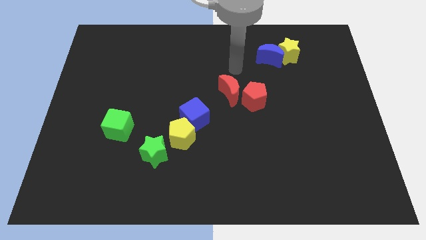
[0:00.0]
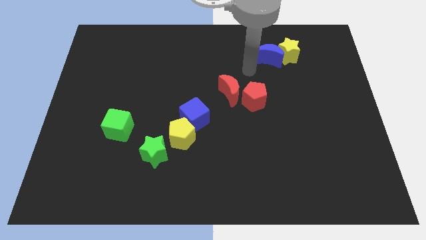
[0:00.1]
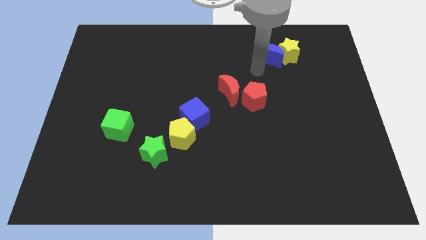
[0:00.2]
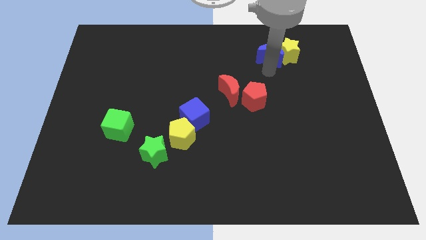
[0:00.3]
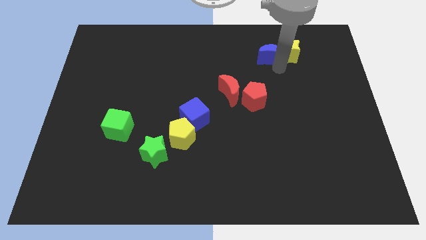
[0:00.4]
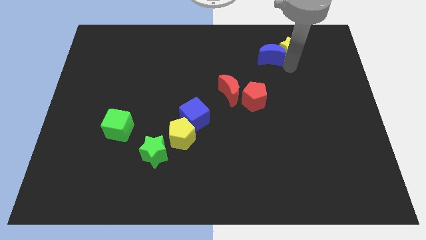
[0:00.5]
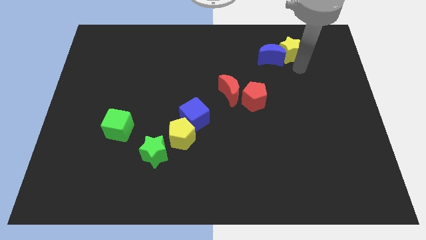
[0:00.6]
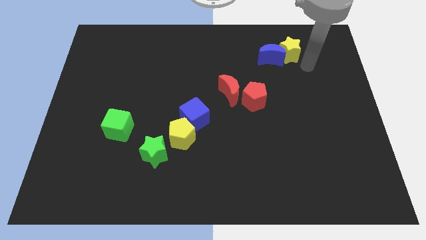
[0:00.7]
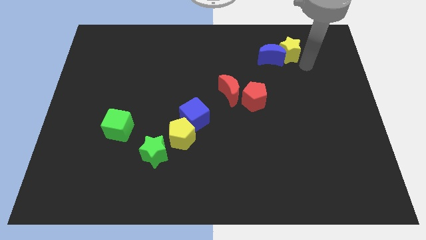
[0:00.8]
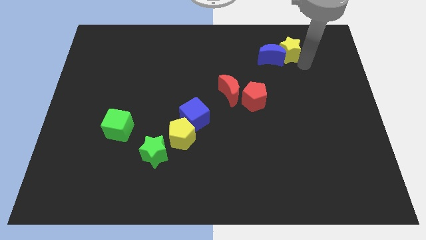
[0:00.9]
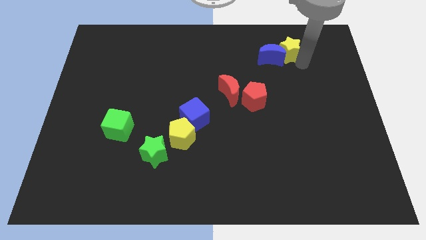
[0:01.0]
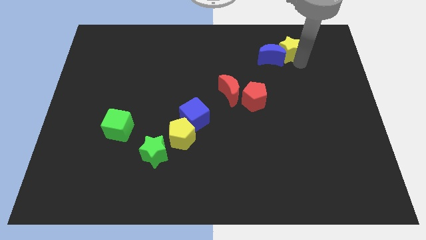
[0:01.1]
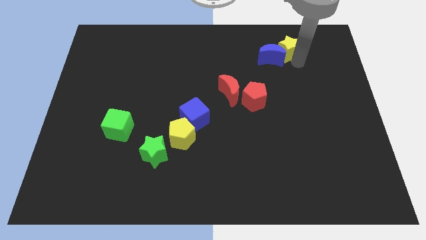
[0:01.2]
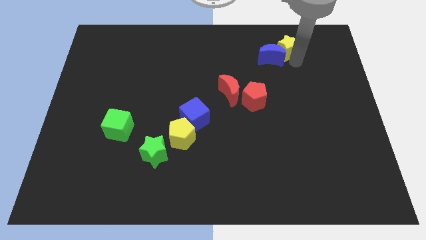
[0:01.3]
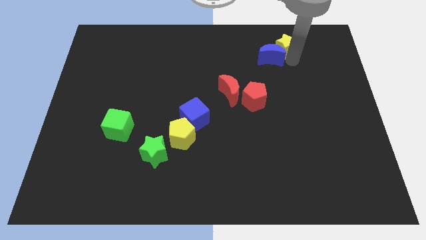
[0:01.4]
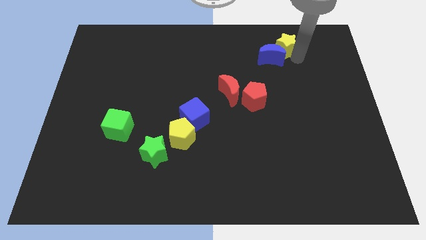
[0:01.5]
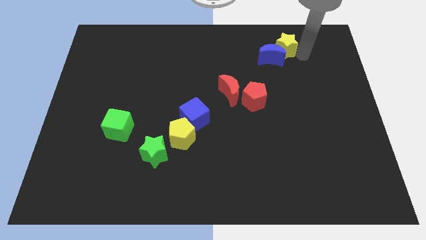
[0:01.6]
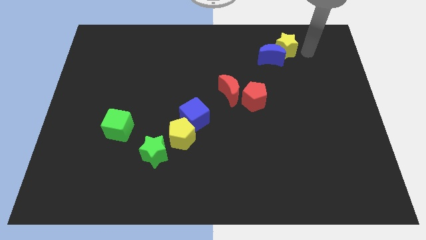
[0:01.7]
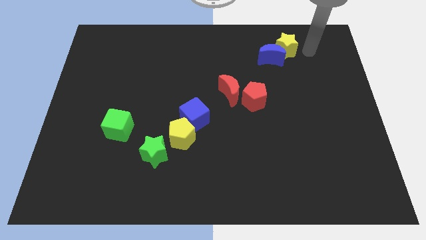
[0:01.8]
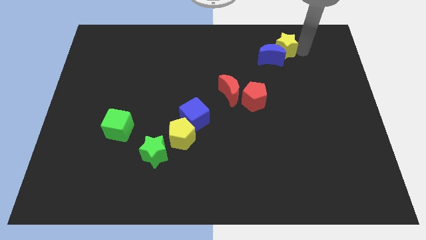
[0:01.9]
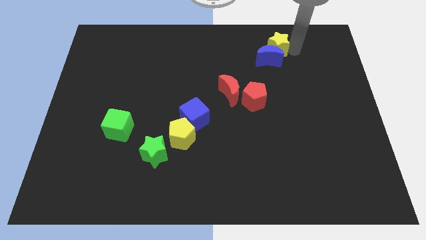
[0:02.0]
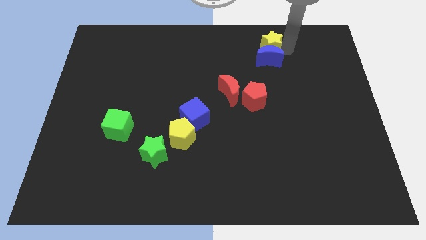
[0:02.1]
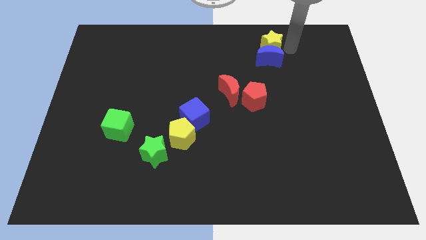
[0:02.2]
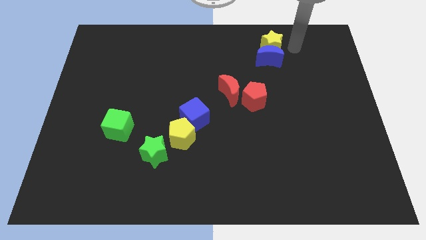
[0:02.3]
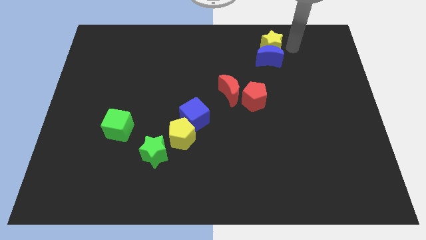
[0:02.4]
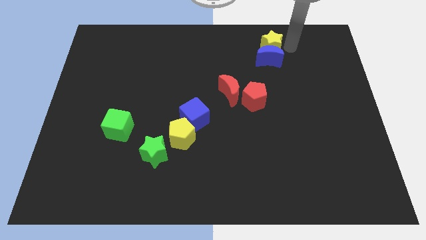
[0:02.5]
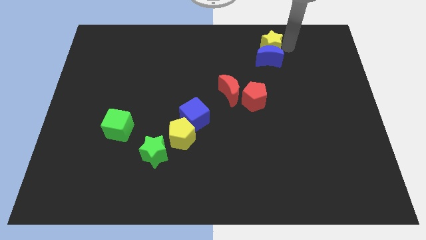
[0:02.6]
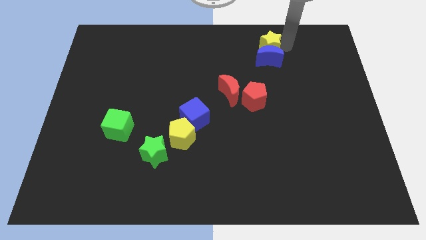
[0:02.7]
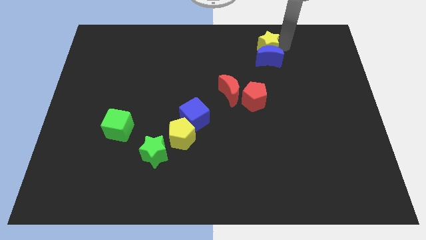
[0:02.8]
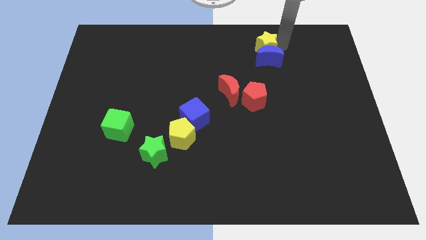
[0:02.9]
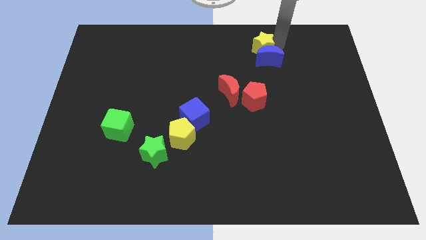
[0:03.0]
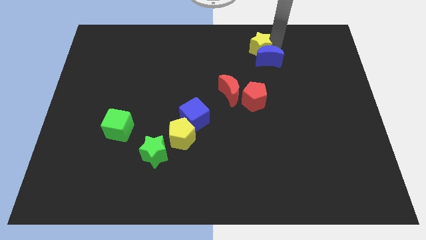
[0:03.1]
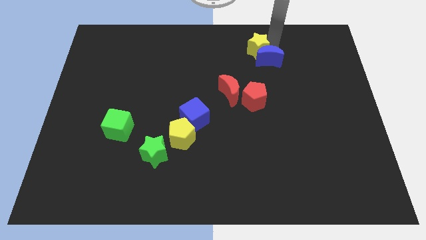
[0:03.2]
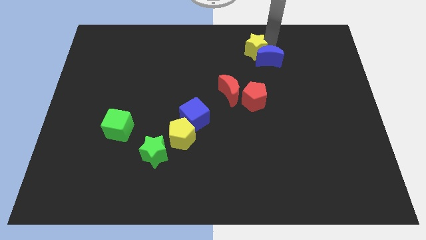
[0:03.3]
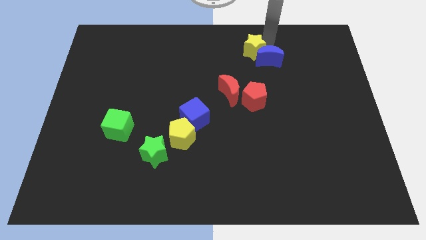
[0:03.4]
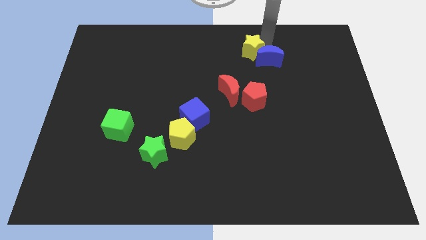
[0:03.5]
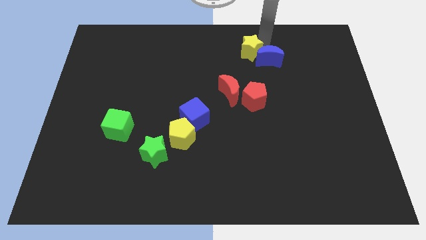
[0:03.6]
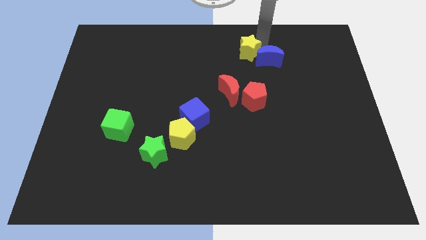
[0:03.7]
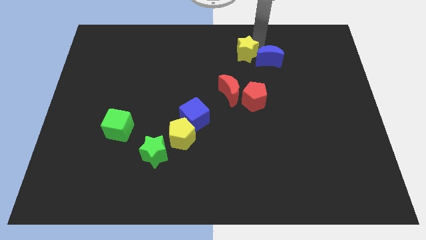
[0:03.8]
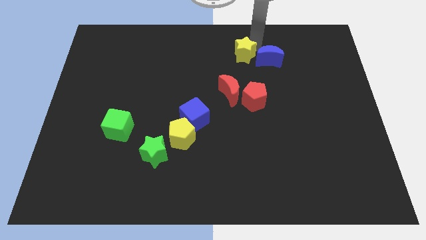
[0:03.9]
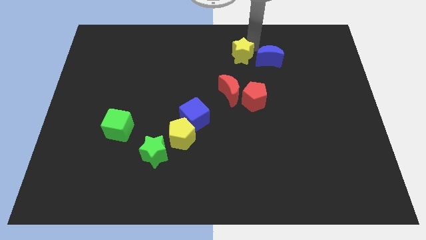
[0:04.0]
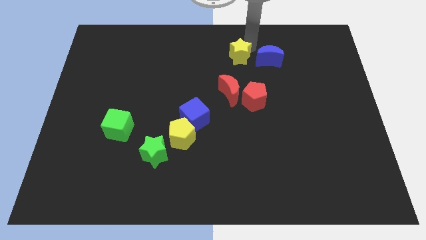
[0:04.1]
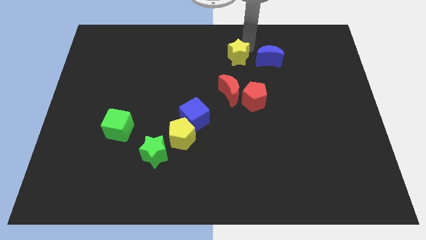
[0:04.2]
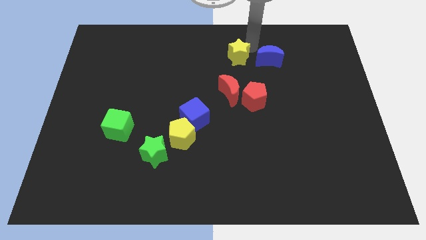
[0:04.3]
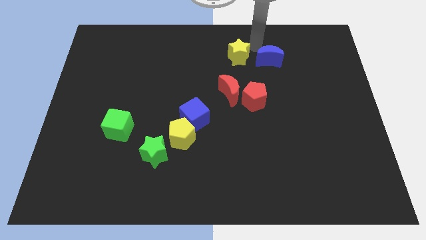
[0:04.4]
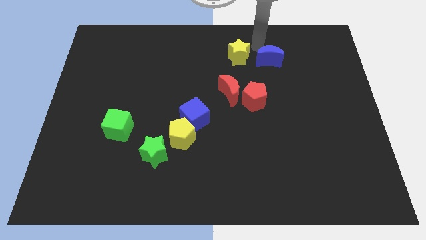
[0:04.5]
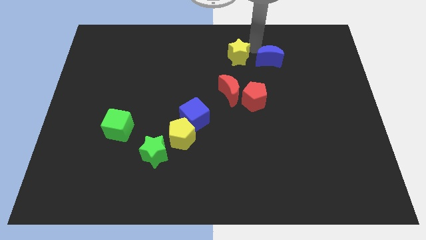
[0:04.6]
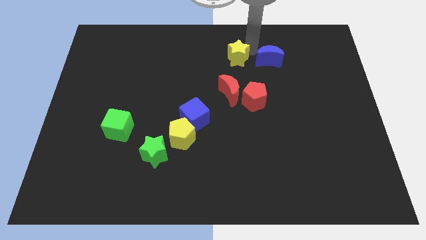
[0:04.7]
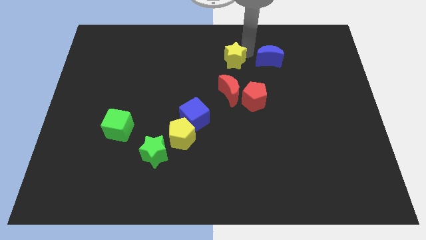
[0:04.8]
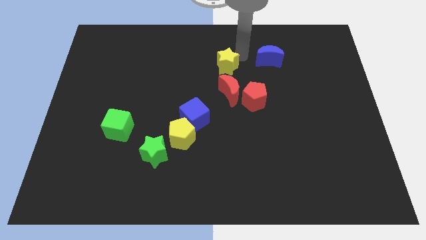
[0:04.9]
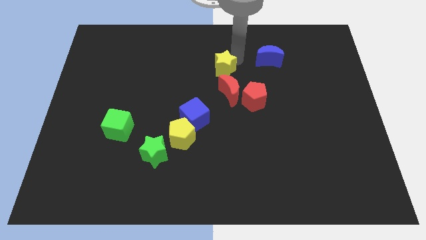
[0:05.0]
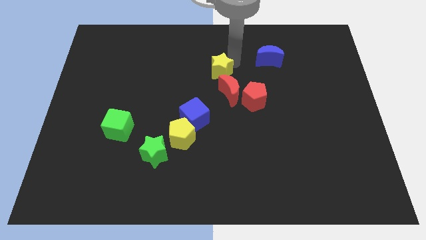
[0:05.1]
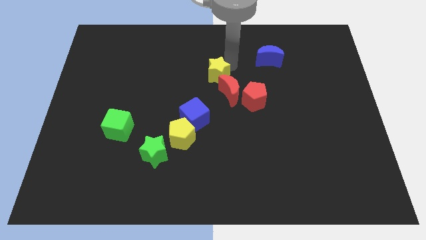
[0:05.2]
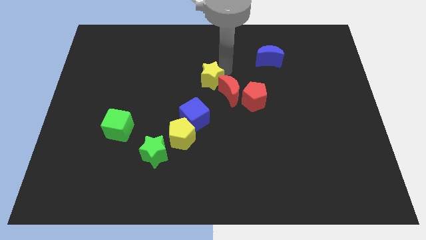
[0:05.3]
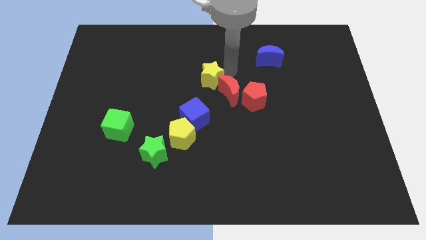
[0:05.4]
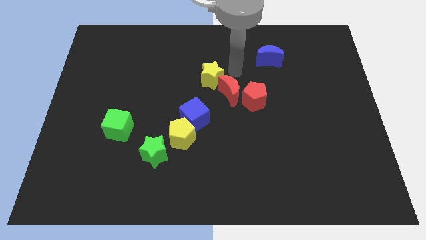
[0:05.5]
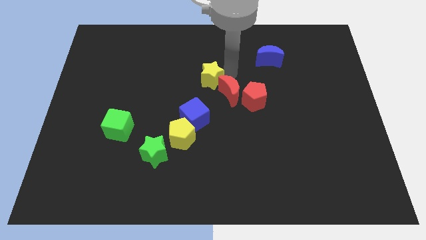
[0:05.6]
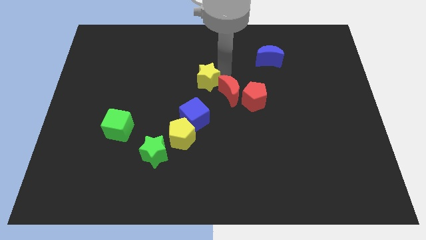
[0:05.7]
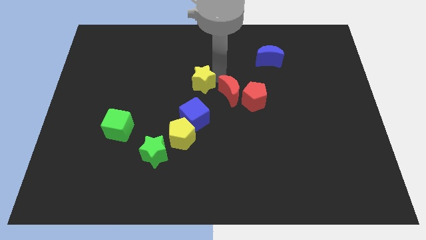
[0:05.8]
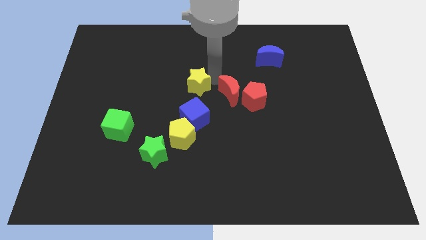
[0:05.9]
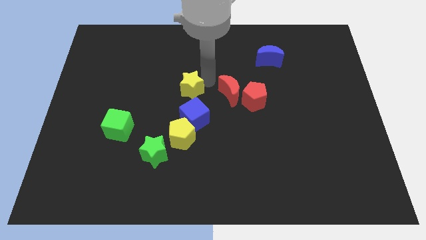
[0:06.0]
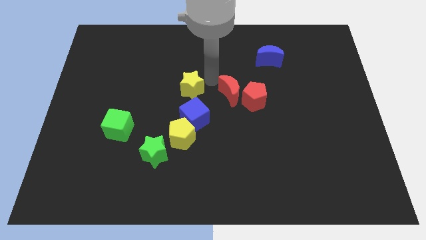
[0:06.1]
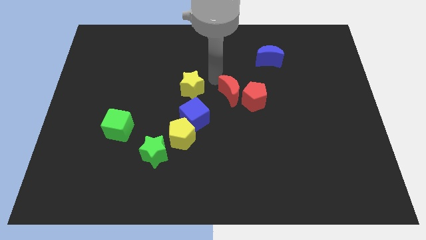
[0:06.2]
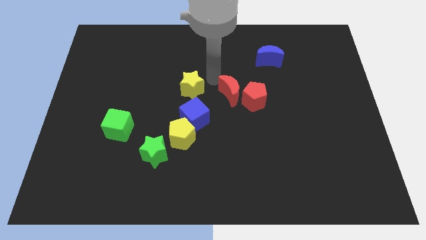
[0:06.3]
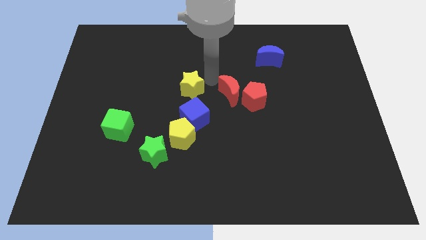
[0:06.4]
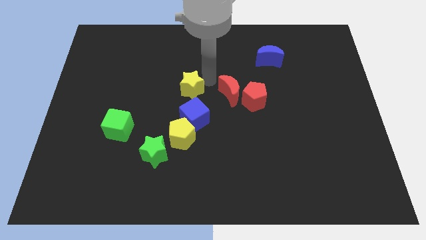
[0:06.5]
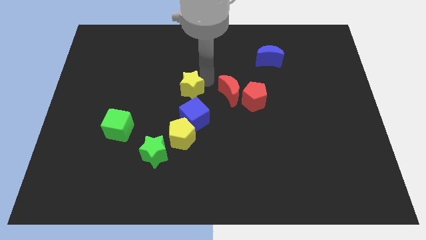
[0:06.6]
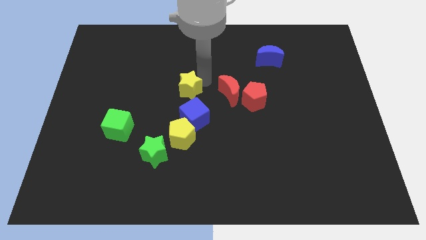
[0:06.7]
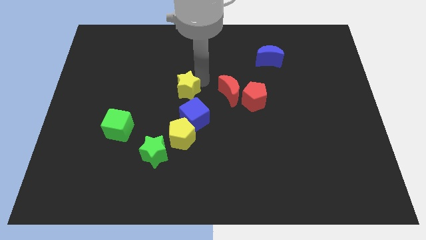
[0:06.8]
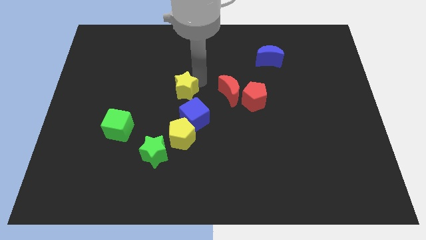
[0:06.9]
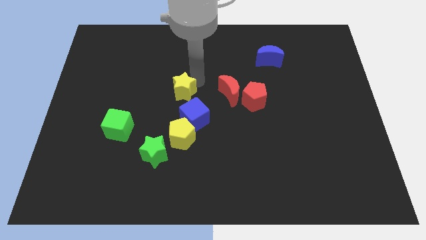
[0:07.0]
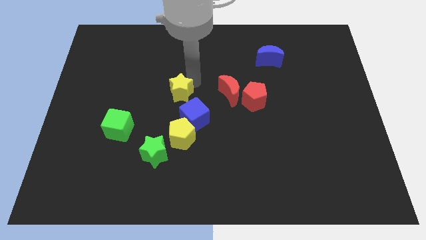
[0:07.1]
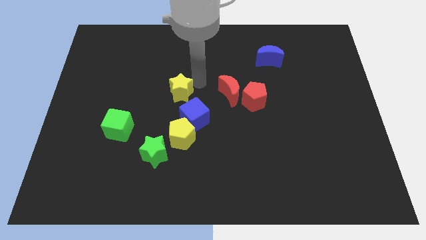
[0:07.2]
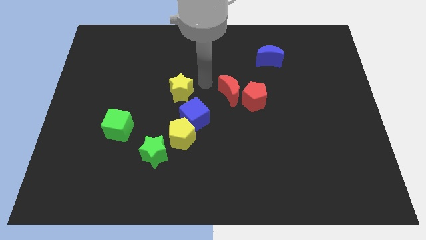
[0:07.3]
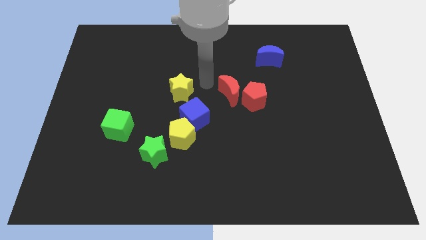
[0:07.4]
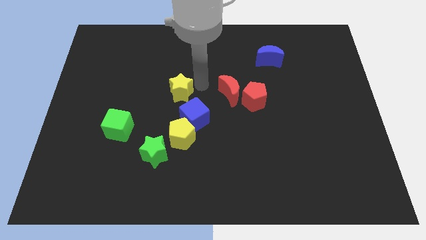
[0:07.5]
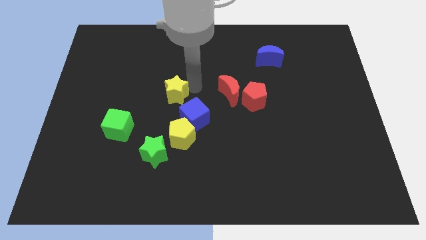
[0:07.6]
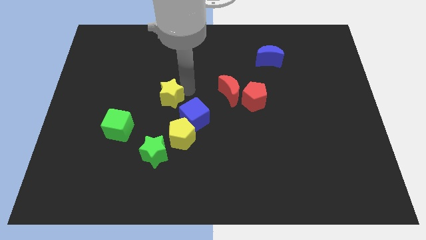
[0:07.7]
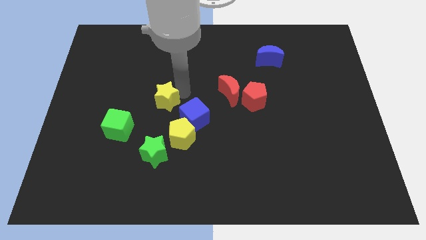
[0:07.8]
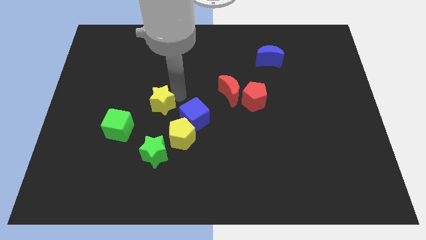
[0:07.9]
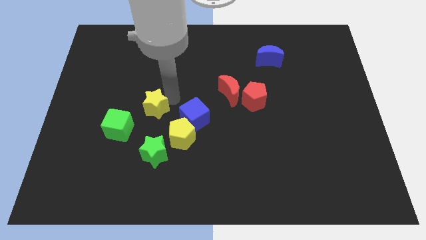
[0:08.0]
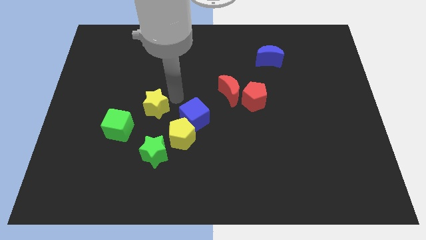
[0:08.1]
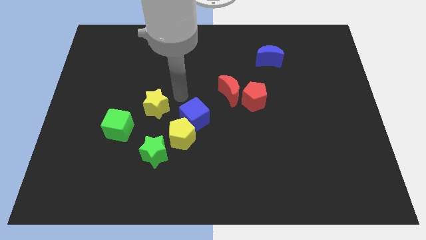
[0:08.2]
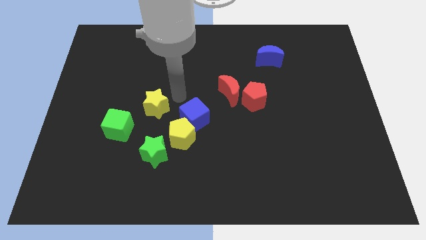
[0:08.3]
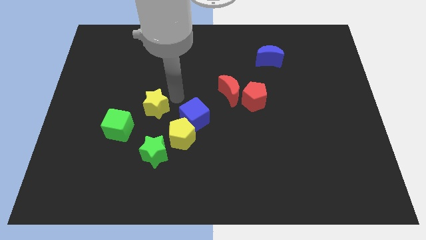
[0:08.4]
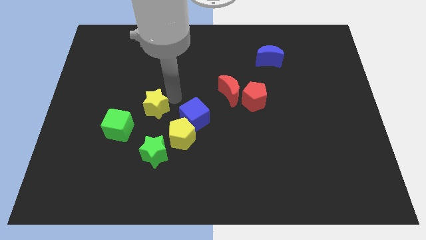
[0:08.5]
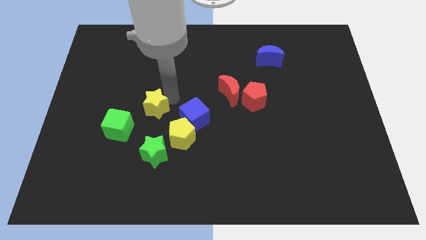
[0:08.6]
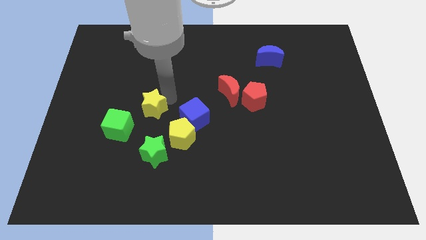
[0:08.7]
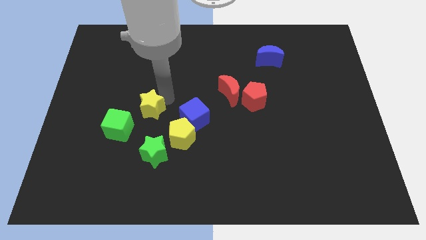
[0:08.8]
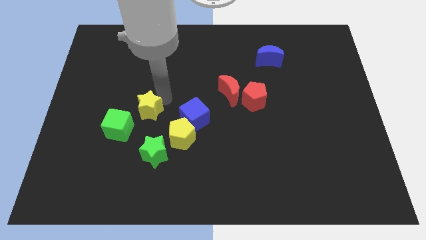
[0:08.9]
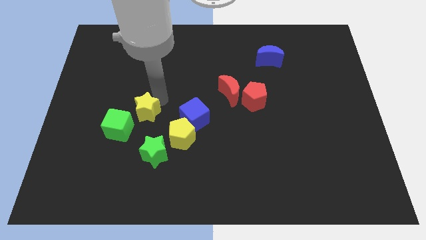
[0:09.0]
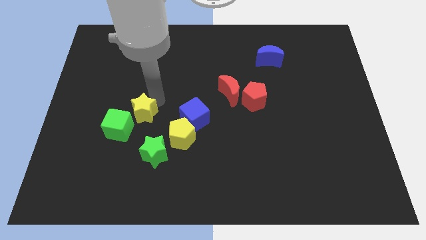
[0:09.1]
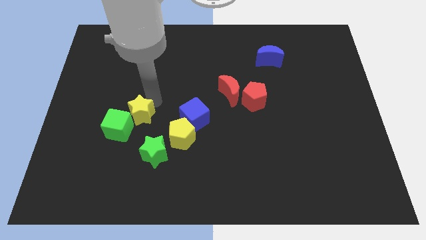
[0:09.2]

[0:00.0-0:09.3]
push the yellow star next to the green cube
